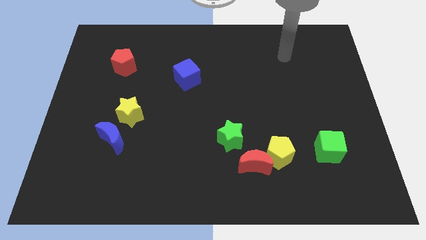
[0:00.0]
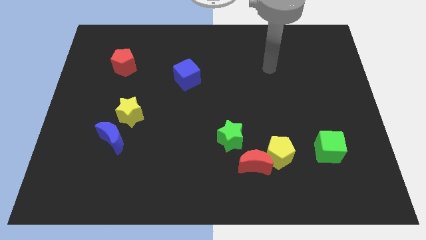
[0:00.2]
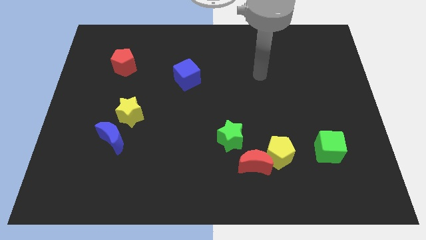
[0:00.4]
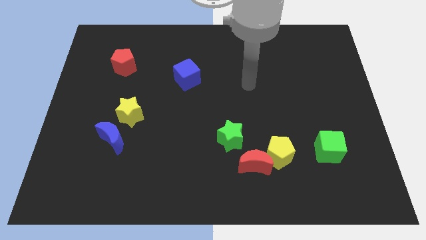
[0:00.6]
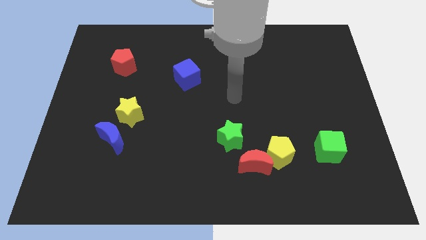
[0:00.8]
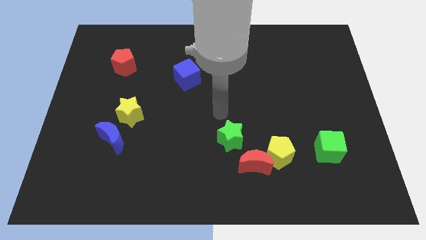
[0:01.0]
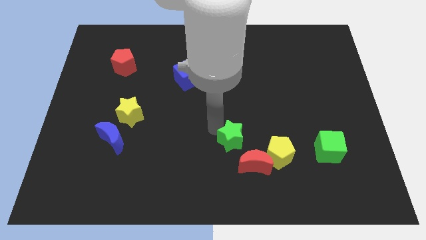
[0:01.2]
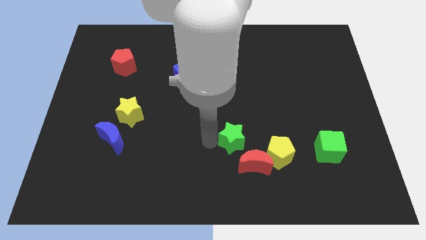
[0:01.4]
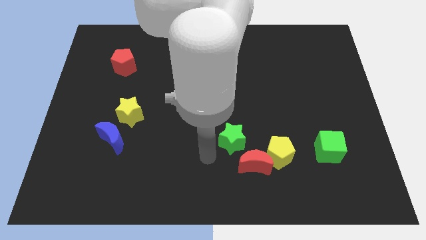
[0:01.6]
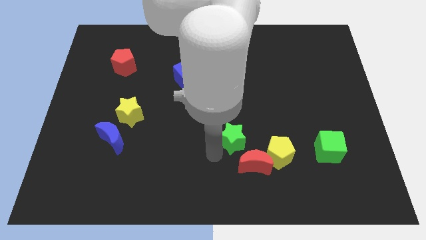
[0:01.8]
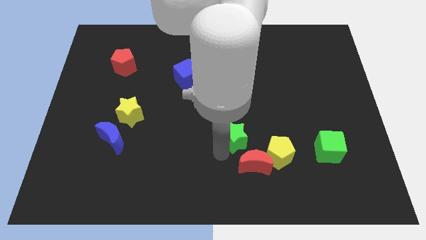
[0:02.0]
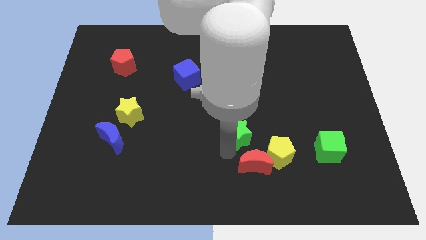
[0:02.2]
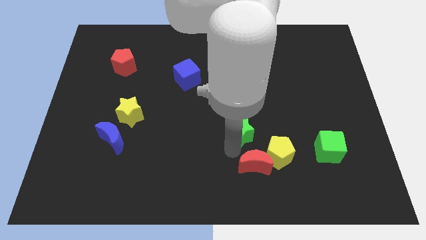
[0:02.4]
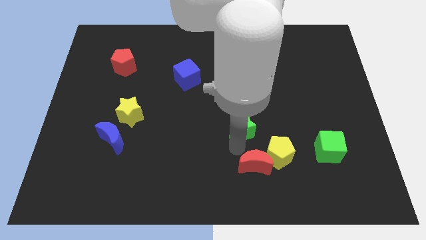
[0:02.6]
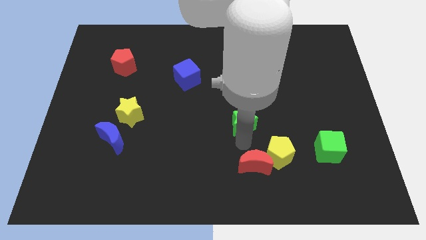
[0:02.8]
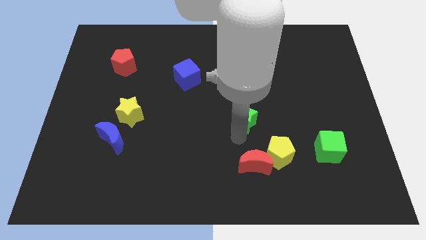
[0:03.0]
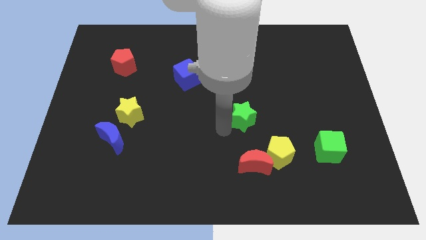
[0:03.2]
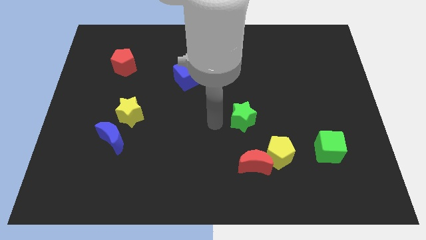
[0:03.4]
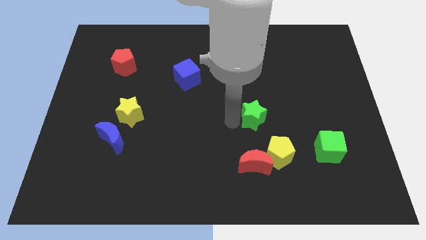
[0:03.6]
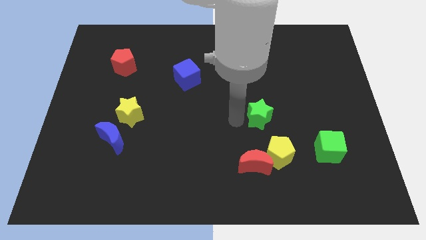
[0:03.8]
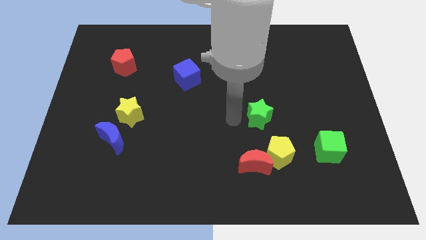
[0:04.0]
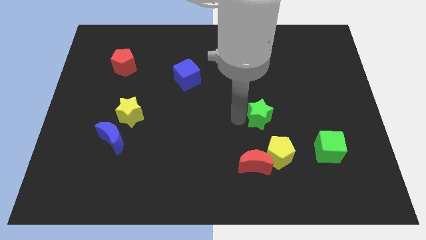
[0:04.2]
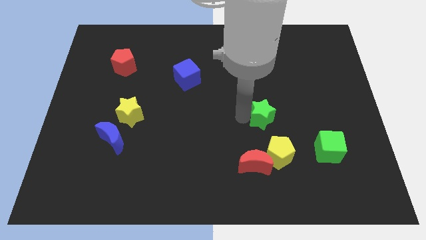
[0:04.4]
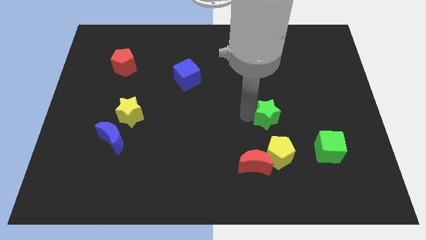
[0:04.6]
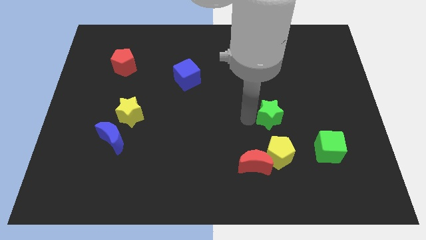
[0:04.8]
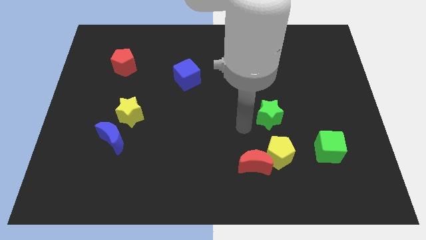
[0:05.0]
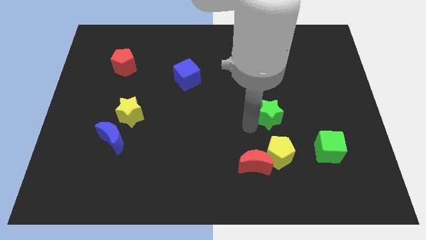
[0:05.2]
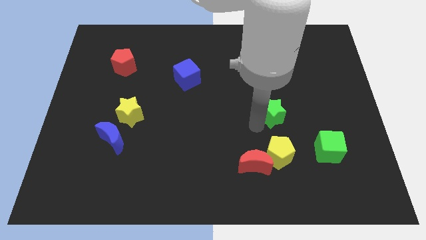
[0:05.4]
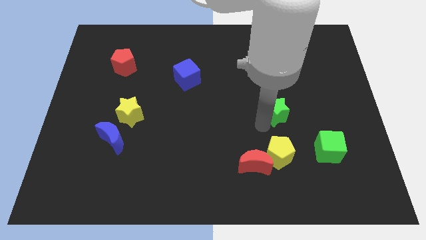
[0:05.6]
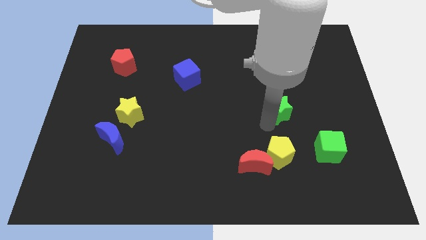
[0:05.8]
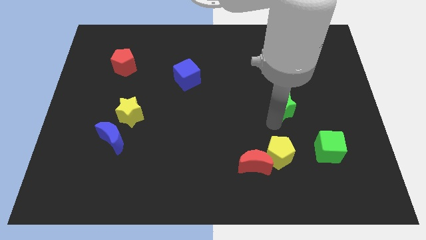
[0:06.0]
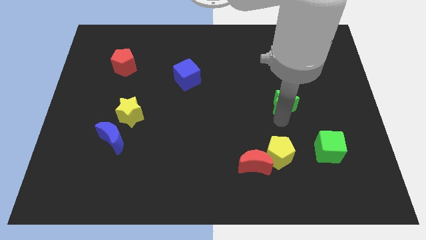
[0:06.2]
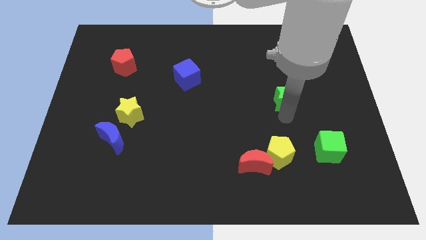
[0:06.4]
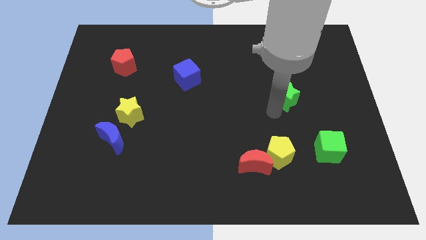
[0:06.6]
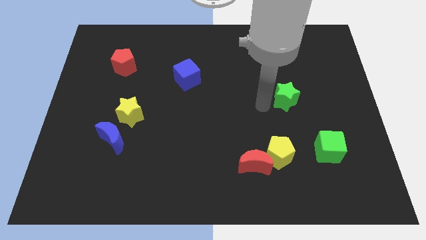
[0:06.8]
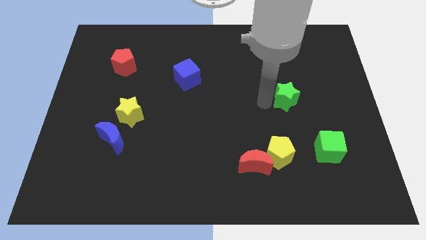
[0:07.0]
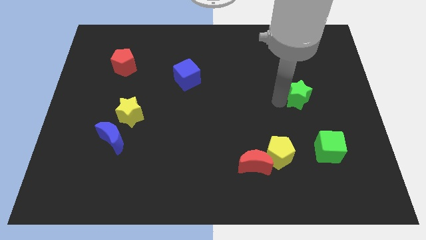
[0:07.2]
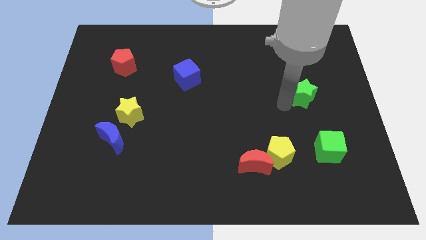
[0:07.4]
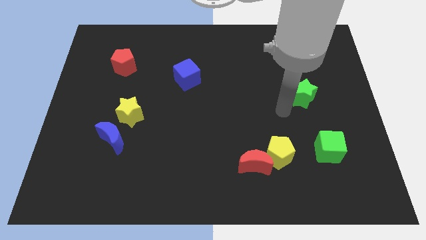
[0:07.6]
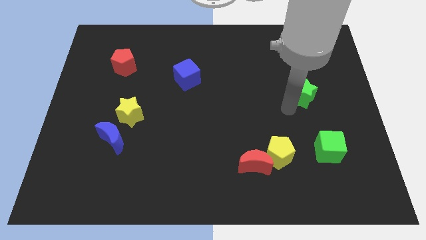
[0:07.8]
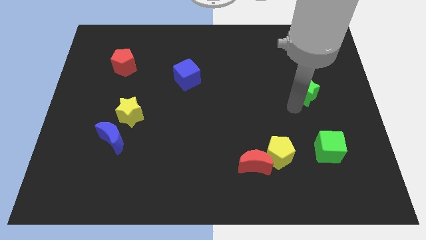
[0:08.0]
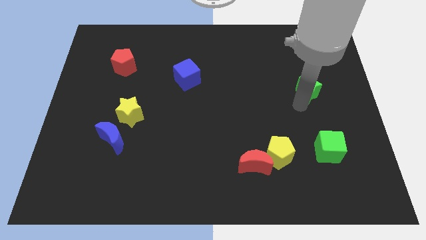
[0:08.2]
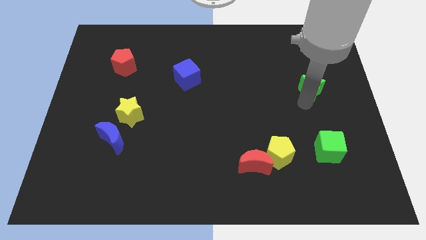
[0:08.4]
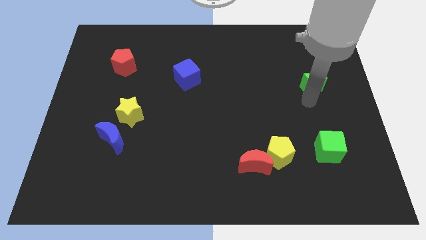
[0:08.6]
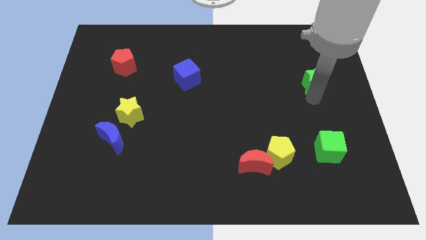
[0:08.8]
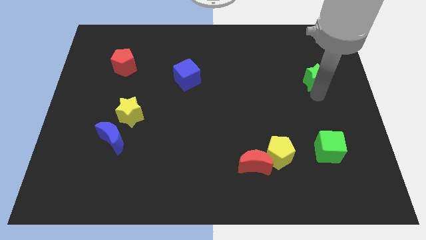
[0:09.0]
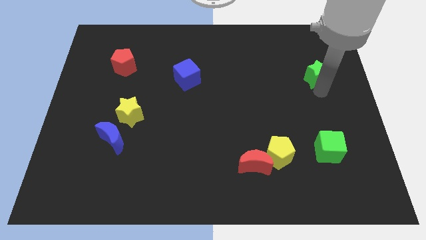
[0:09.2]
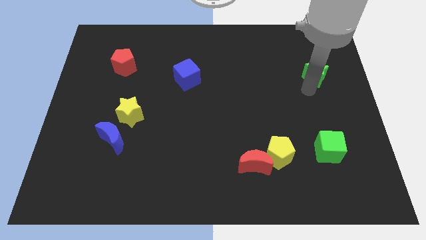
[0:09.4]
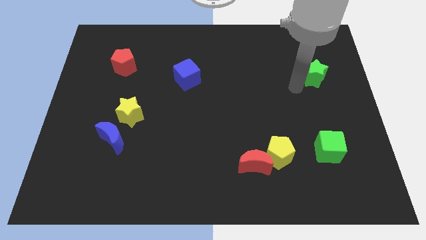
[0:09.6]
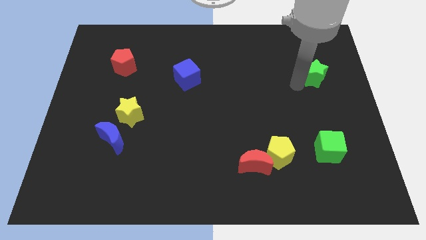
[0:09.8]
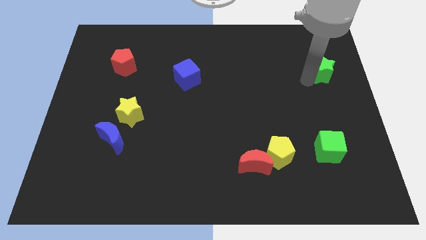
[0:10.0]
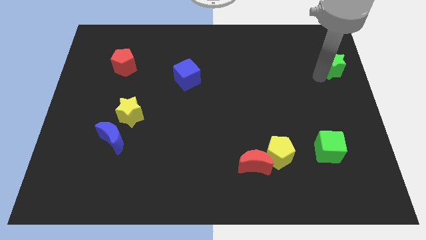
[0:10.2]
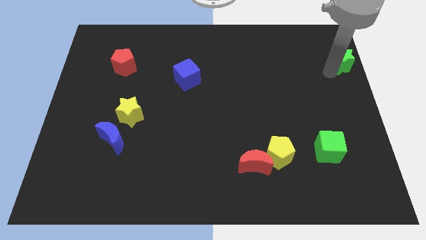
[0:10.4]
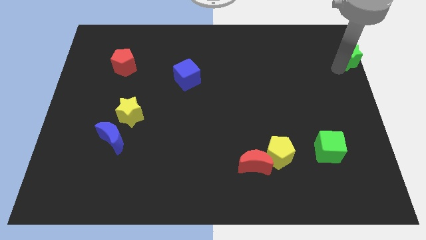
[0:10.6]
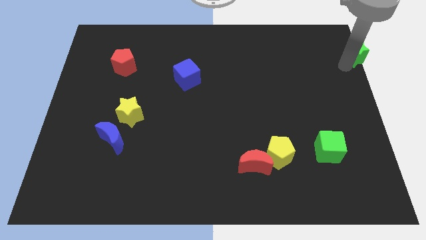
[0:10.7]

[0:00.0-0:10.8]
move the green star to the top right corner
